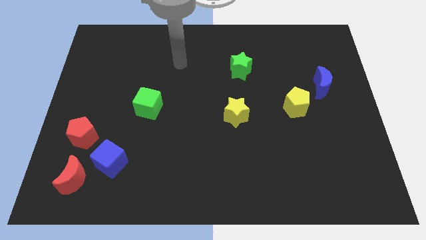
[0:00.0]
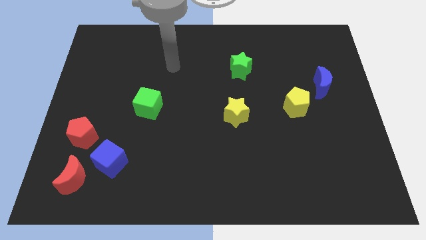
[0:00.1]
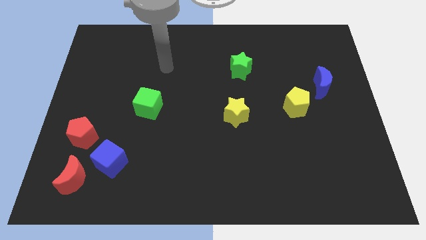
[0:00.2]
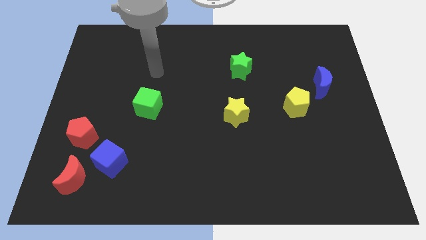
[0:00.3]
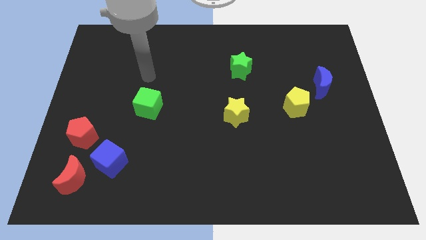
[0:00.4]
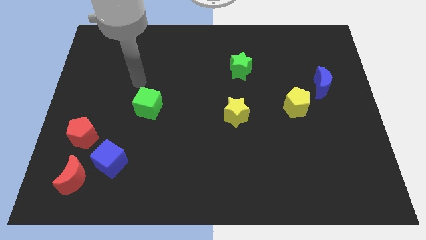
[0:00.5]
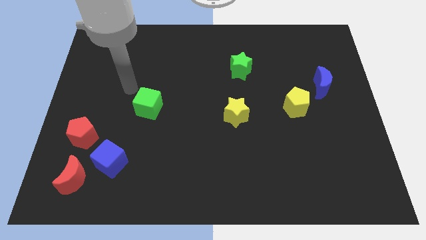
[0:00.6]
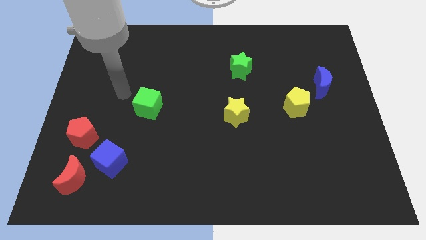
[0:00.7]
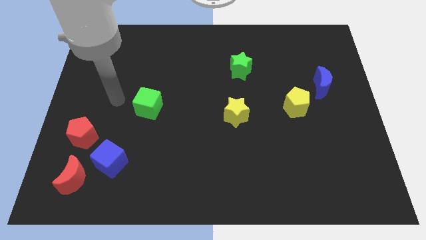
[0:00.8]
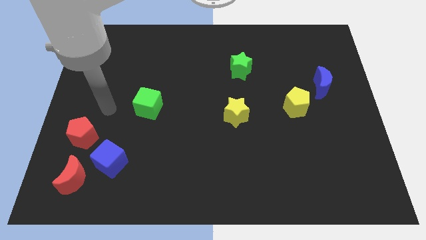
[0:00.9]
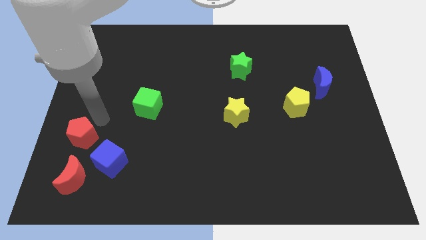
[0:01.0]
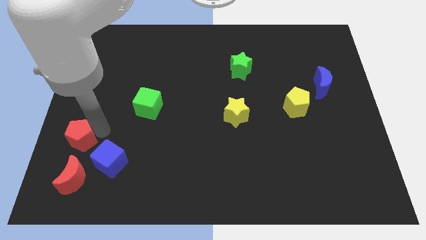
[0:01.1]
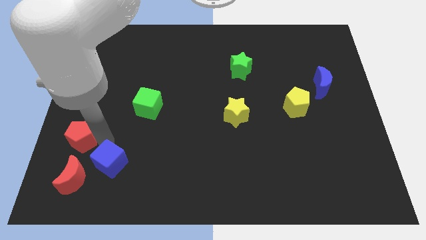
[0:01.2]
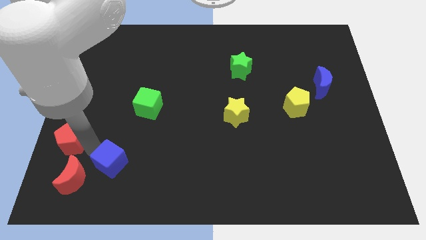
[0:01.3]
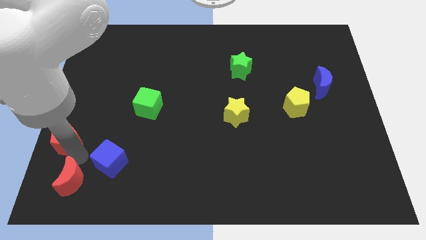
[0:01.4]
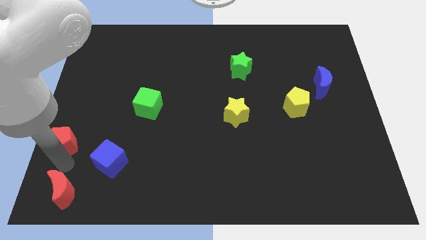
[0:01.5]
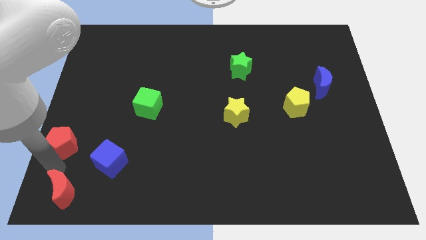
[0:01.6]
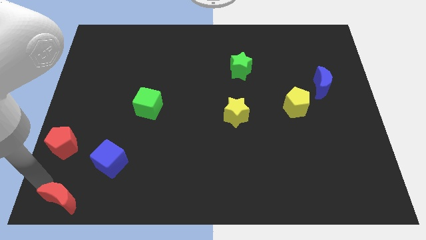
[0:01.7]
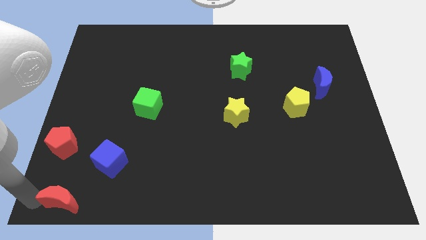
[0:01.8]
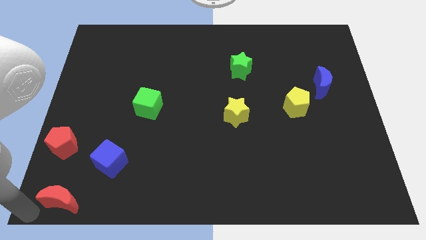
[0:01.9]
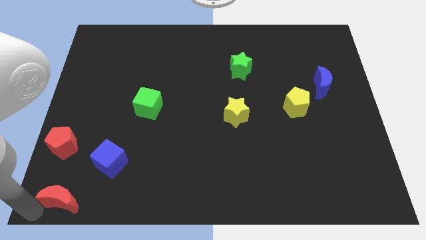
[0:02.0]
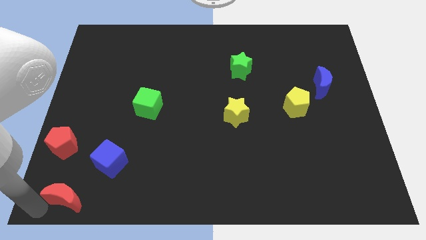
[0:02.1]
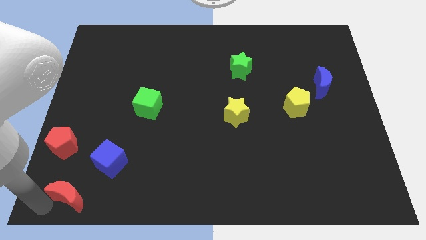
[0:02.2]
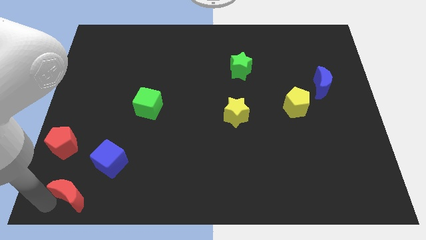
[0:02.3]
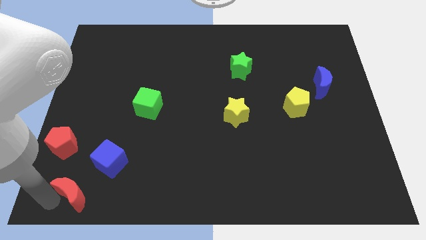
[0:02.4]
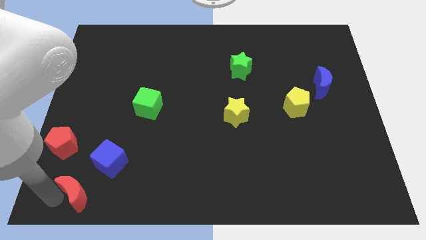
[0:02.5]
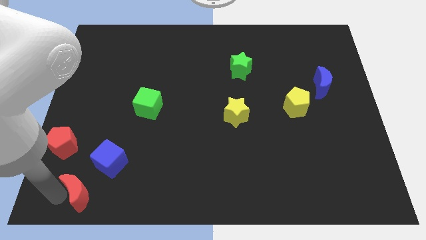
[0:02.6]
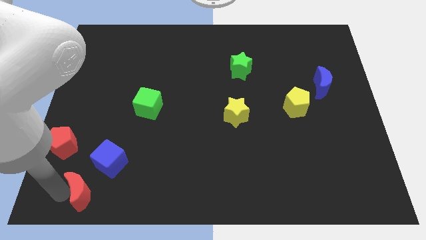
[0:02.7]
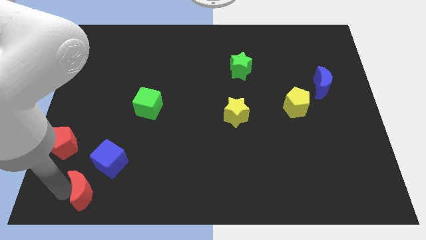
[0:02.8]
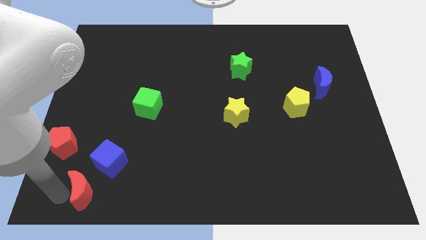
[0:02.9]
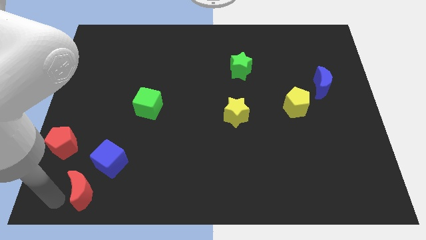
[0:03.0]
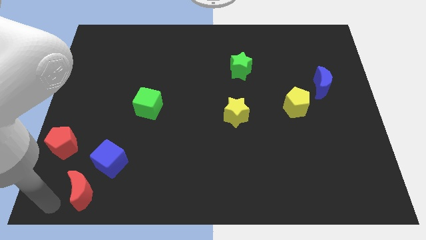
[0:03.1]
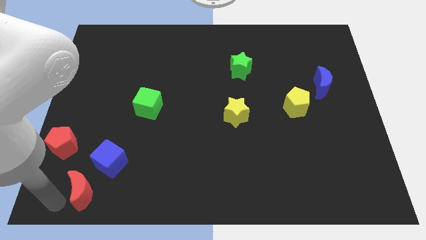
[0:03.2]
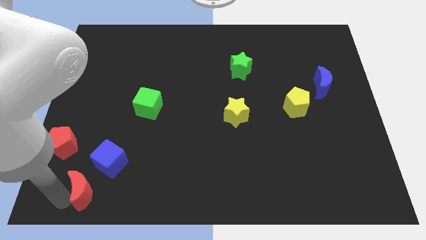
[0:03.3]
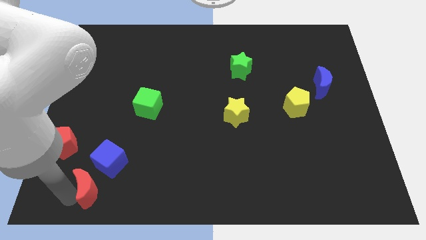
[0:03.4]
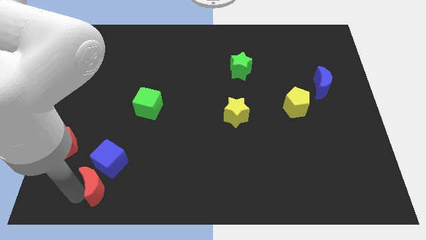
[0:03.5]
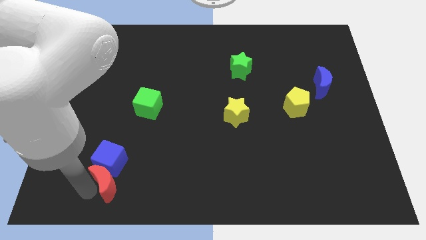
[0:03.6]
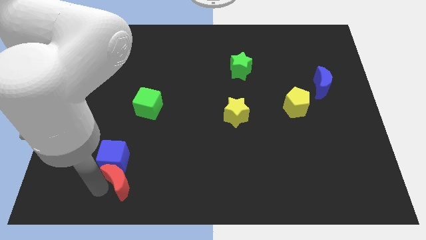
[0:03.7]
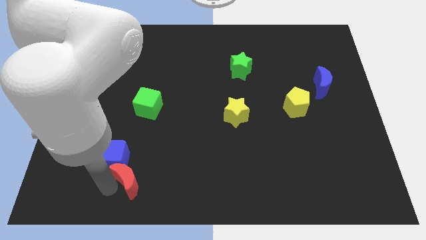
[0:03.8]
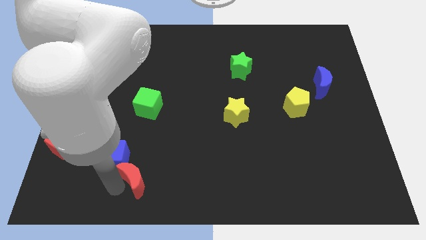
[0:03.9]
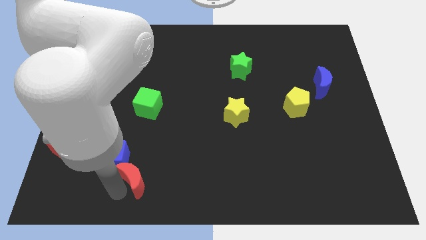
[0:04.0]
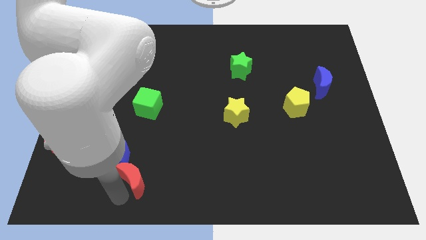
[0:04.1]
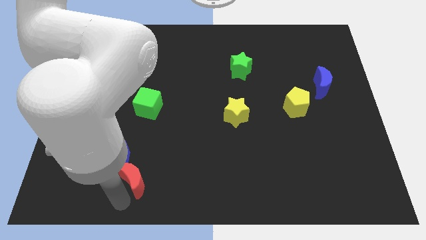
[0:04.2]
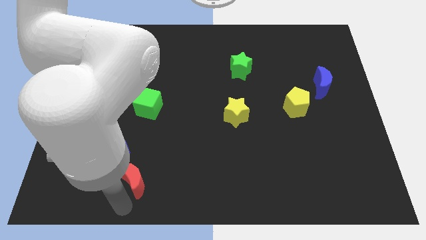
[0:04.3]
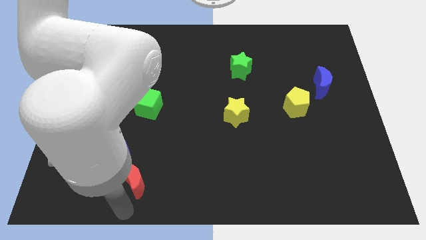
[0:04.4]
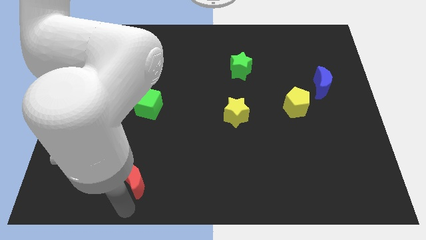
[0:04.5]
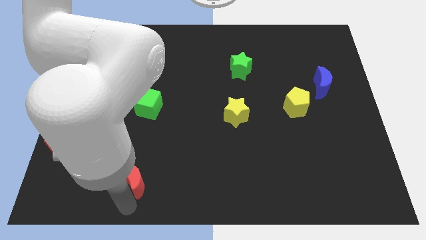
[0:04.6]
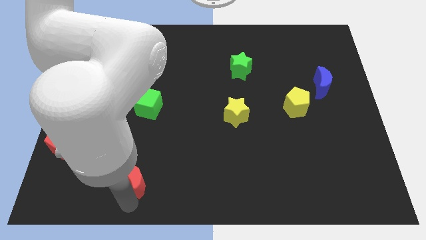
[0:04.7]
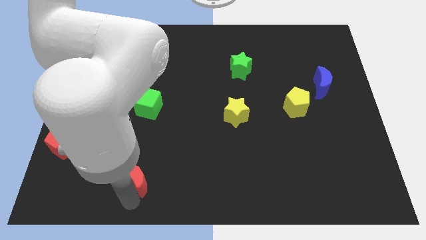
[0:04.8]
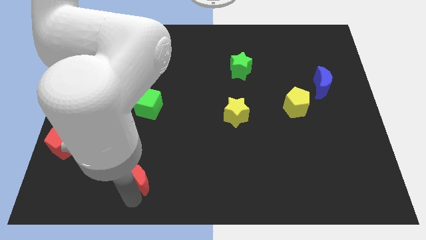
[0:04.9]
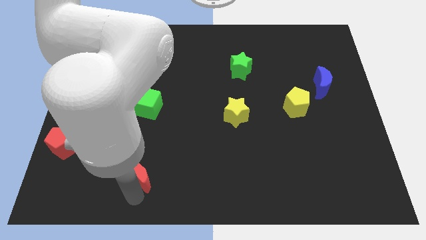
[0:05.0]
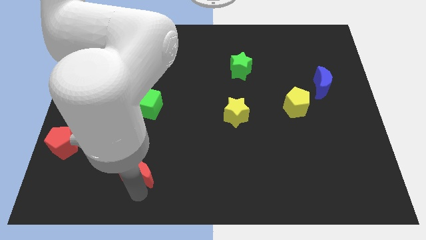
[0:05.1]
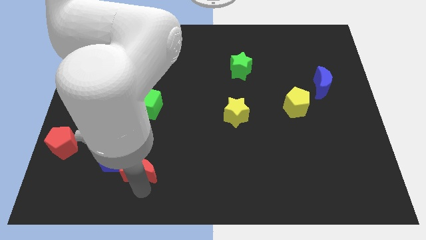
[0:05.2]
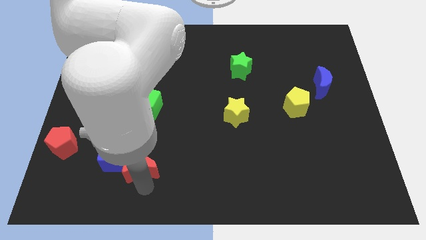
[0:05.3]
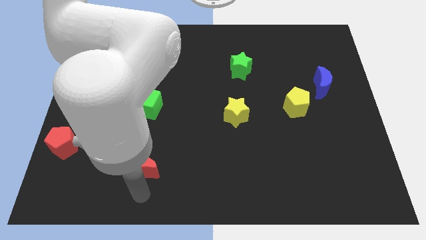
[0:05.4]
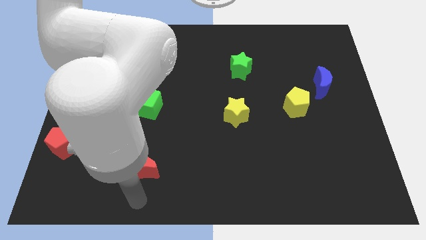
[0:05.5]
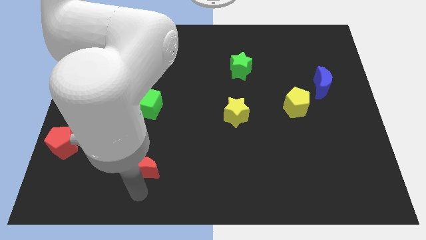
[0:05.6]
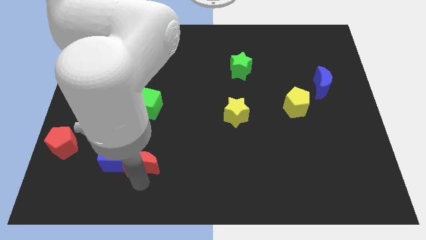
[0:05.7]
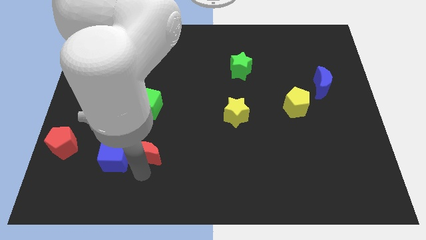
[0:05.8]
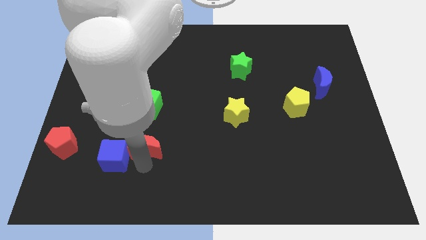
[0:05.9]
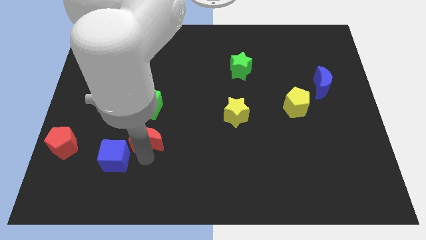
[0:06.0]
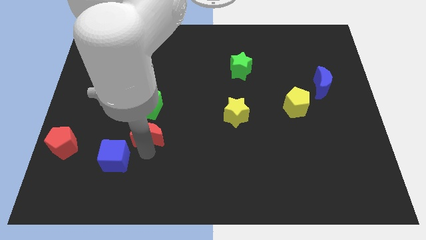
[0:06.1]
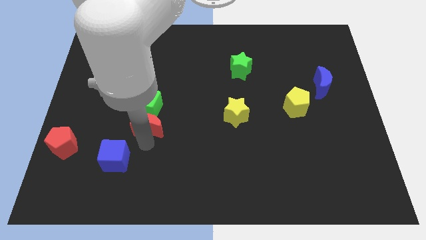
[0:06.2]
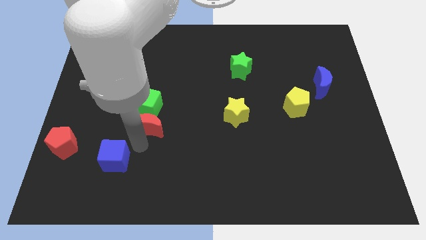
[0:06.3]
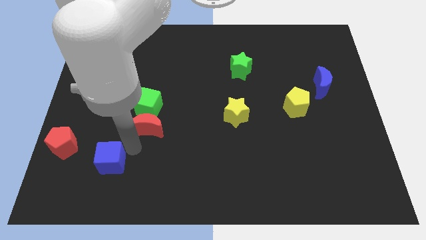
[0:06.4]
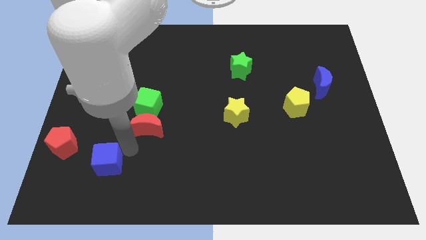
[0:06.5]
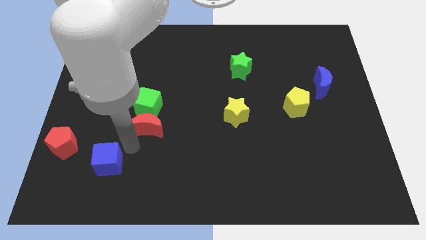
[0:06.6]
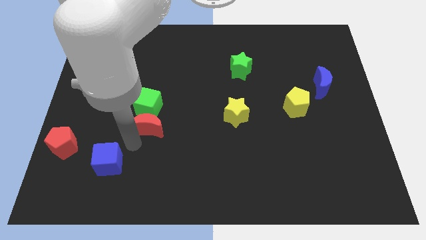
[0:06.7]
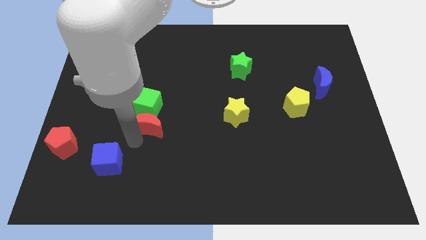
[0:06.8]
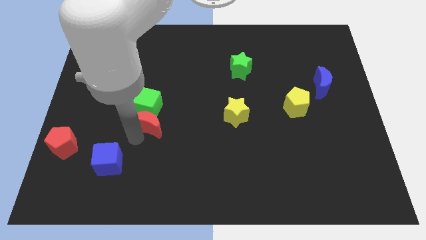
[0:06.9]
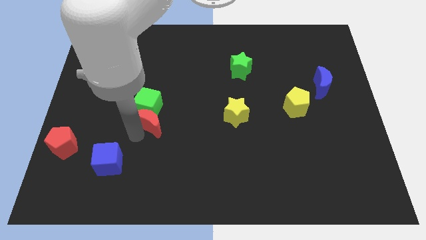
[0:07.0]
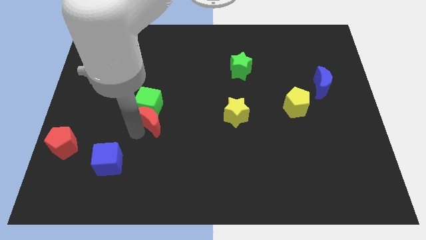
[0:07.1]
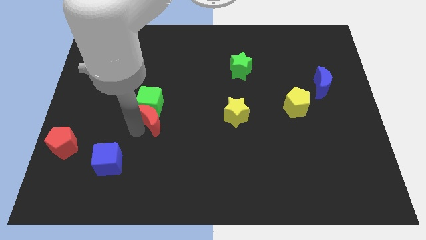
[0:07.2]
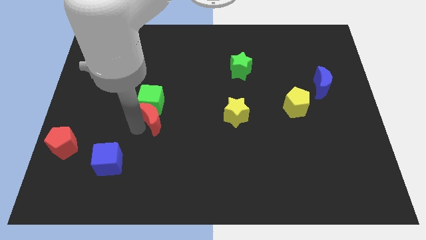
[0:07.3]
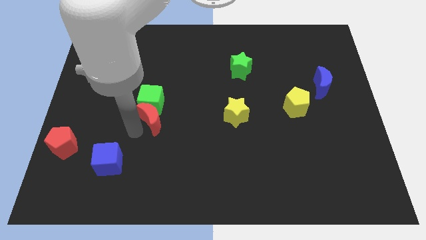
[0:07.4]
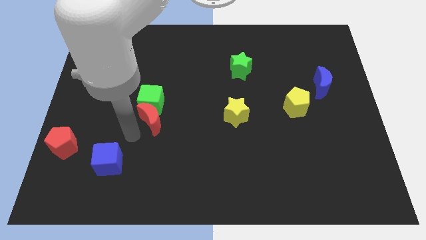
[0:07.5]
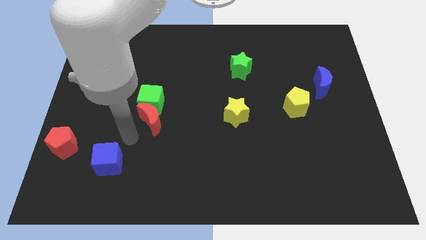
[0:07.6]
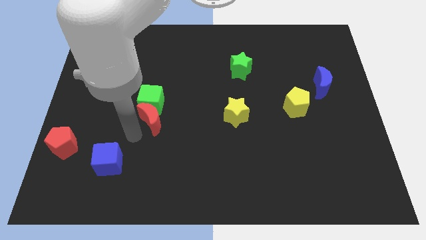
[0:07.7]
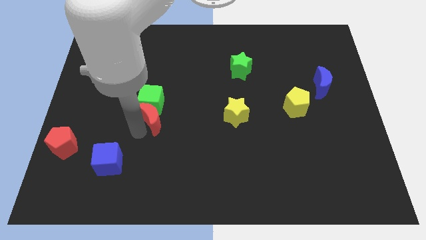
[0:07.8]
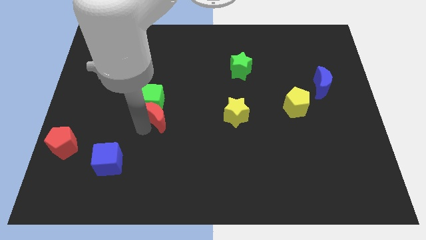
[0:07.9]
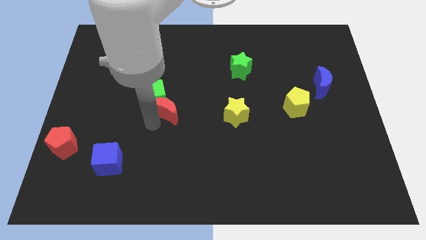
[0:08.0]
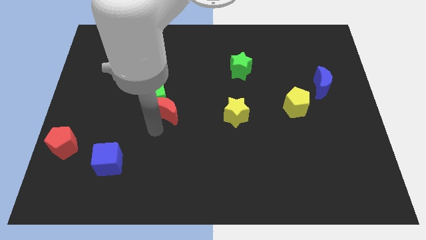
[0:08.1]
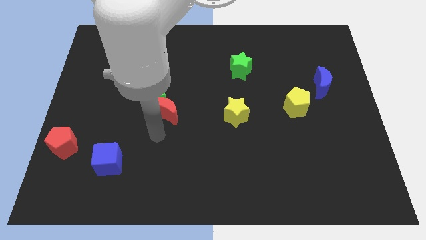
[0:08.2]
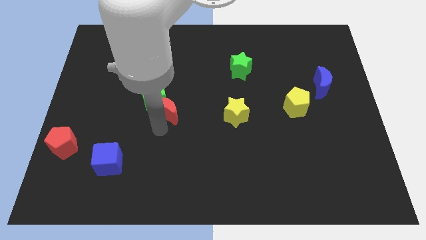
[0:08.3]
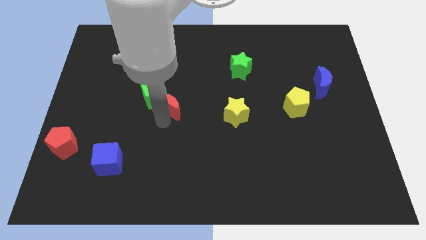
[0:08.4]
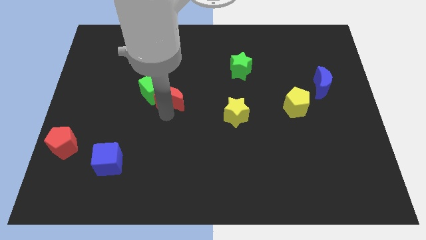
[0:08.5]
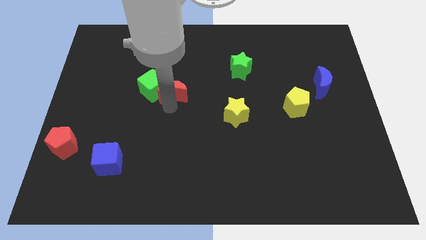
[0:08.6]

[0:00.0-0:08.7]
slide the red moon to the top right side of the green cube
